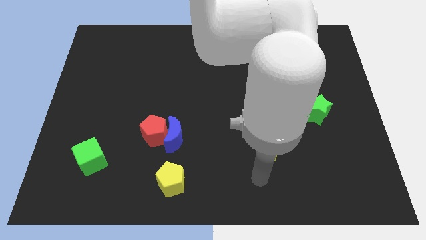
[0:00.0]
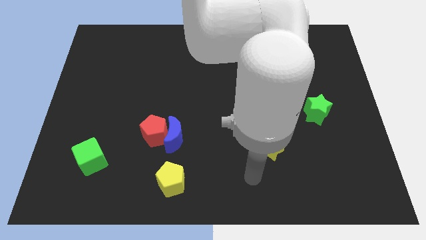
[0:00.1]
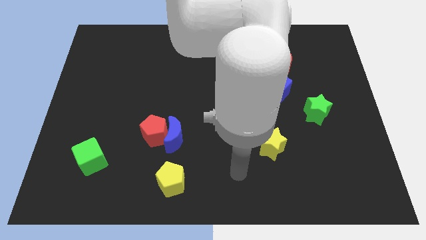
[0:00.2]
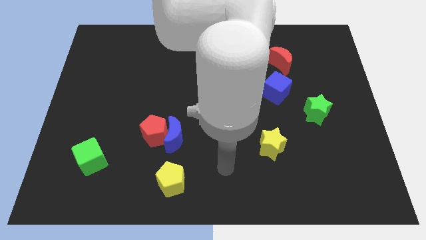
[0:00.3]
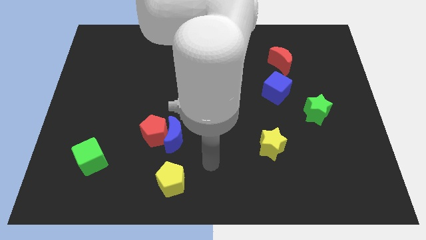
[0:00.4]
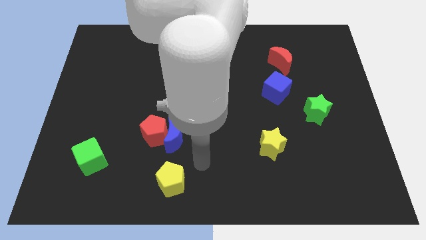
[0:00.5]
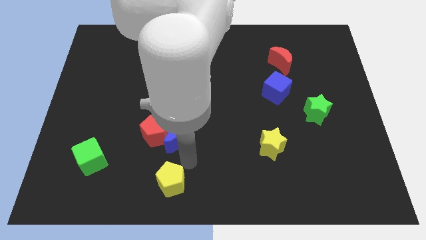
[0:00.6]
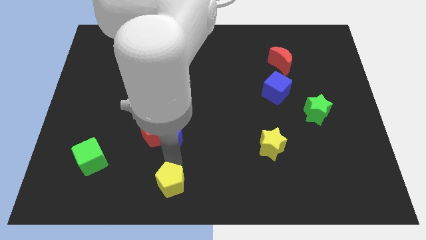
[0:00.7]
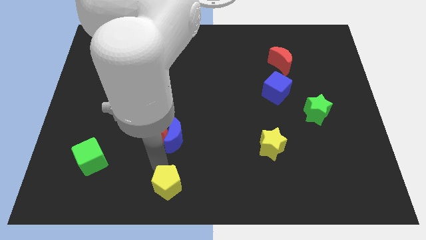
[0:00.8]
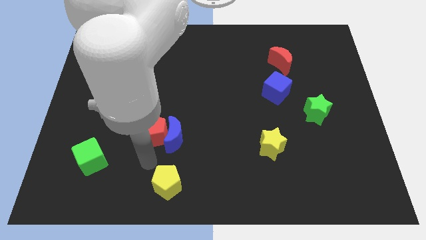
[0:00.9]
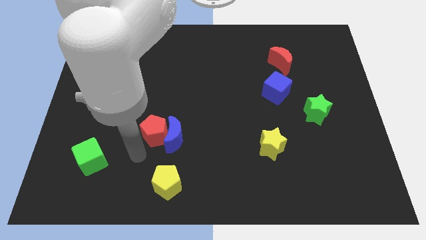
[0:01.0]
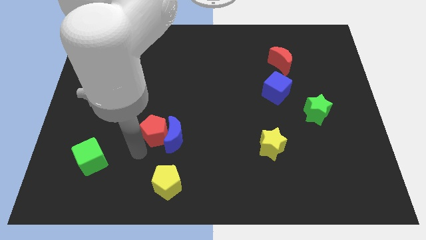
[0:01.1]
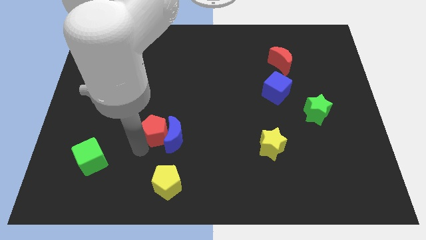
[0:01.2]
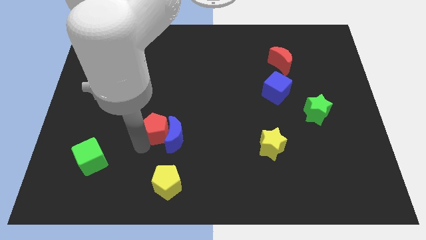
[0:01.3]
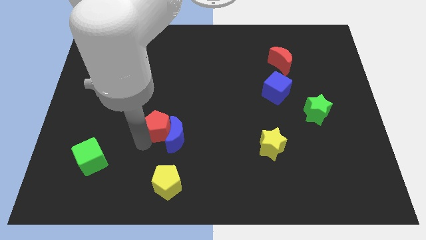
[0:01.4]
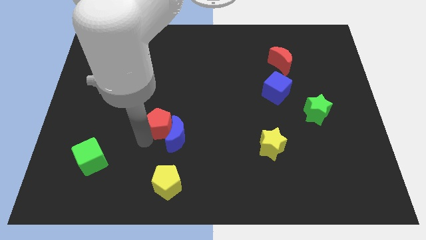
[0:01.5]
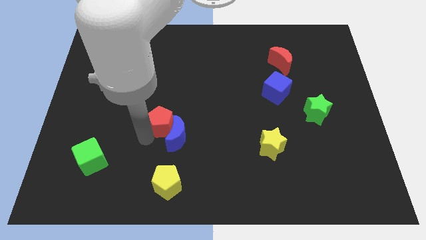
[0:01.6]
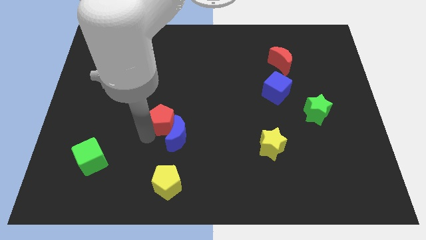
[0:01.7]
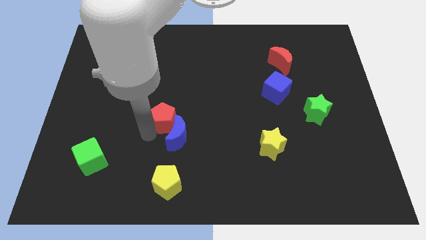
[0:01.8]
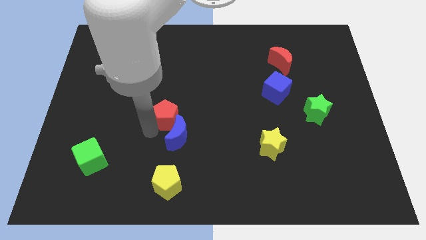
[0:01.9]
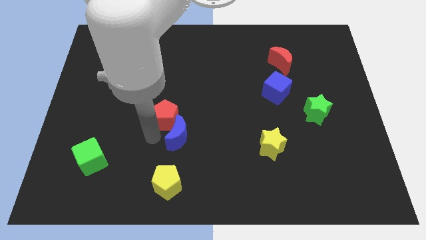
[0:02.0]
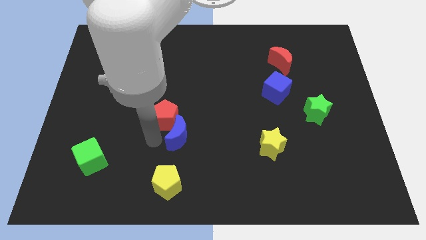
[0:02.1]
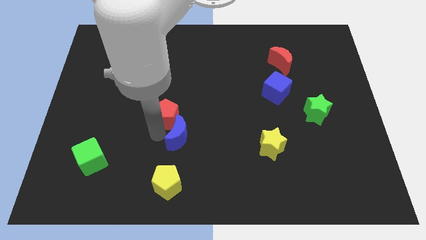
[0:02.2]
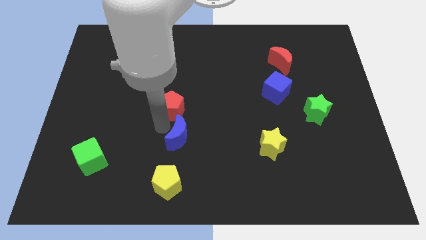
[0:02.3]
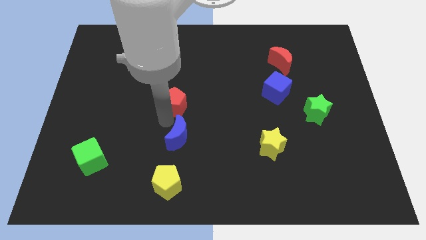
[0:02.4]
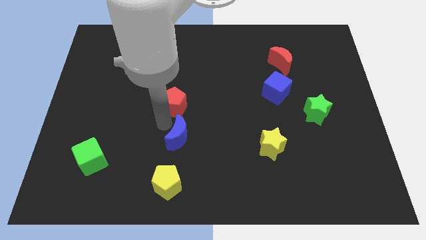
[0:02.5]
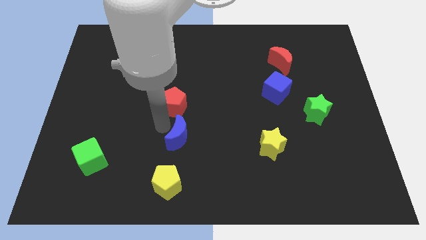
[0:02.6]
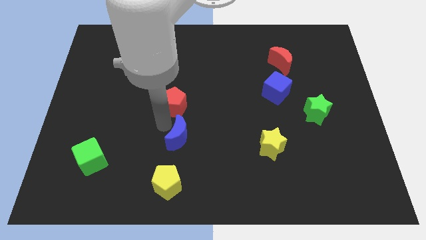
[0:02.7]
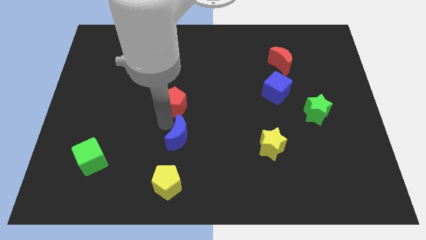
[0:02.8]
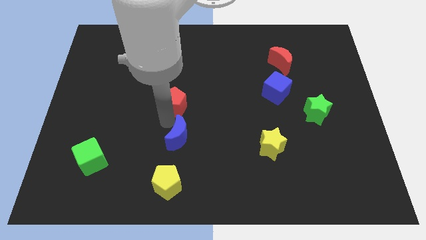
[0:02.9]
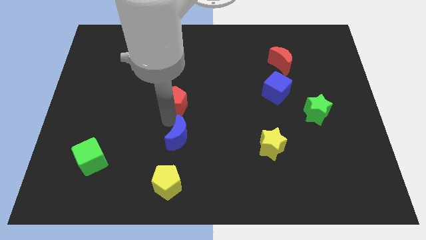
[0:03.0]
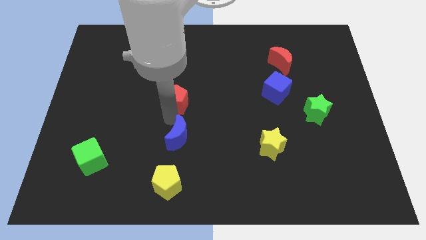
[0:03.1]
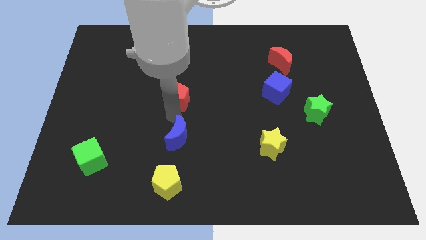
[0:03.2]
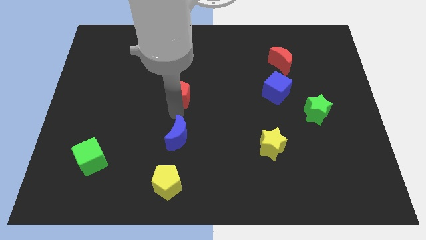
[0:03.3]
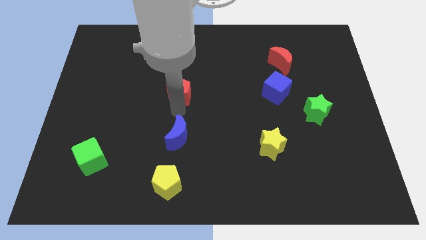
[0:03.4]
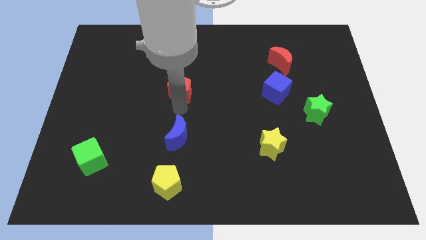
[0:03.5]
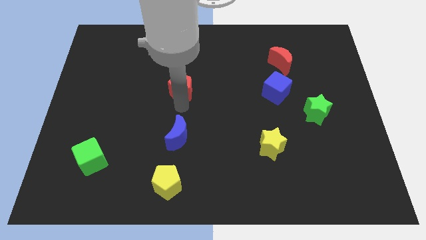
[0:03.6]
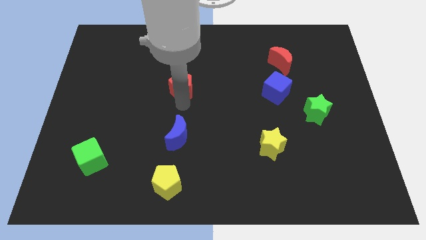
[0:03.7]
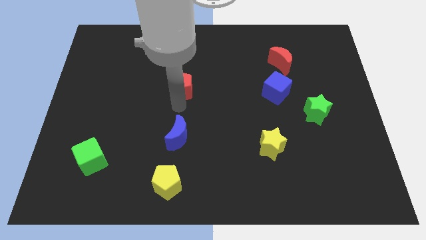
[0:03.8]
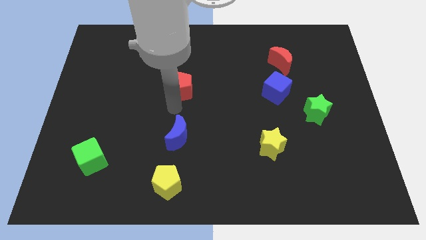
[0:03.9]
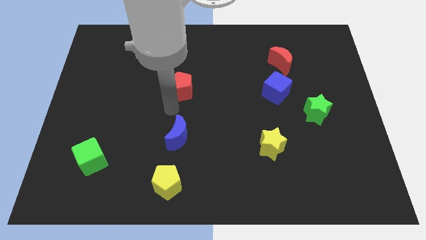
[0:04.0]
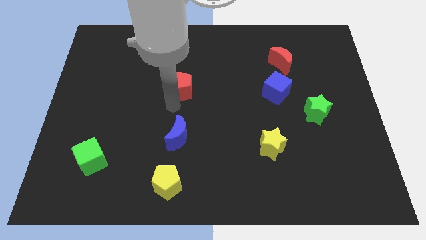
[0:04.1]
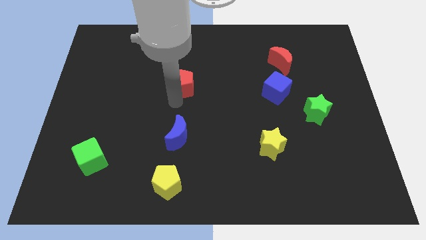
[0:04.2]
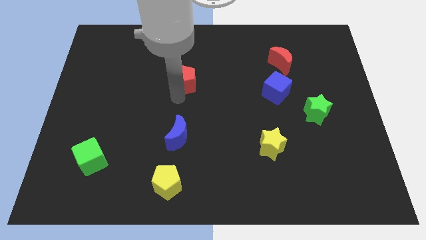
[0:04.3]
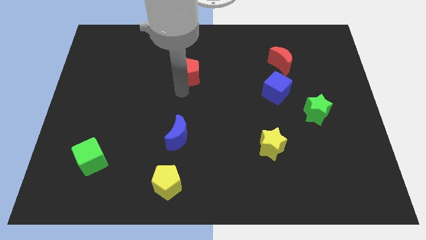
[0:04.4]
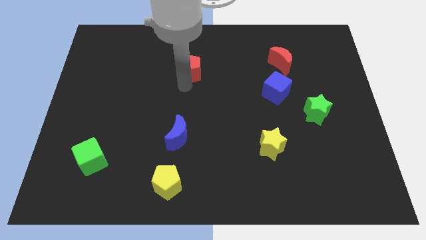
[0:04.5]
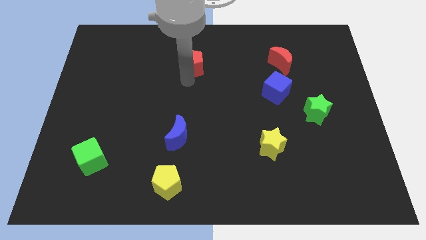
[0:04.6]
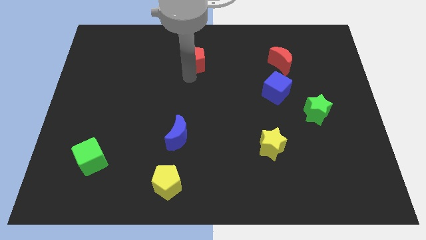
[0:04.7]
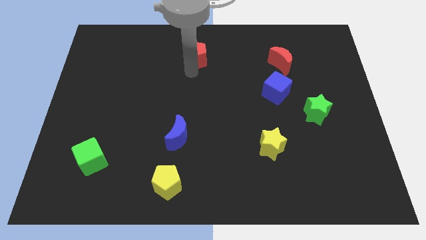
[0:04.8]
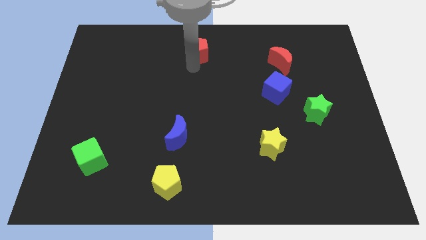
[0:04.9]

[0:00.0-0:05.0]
slide the red pentagon to the top side

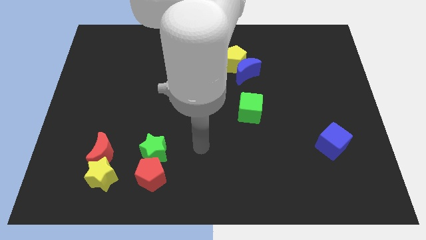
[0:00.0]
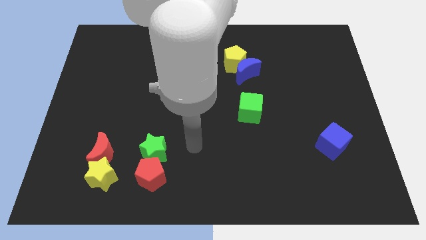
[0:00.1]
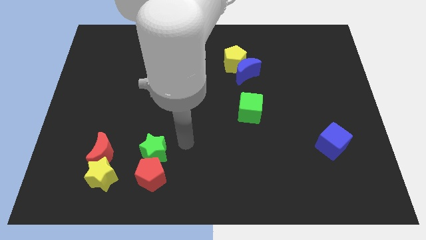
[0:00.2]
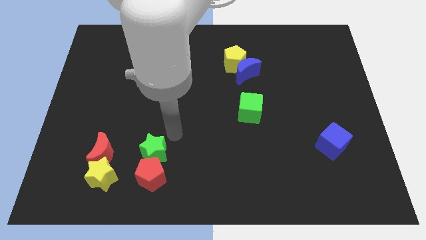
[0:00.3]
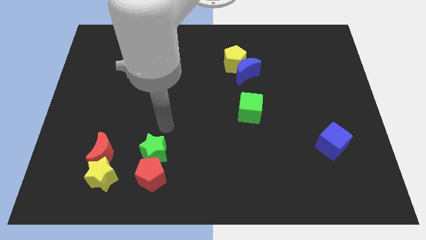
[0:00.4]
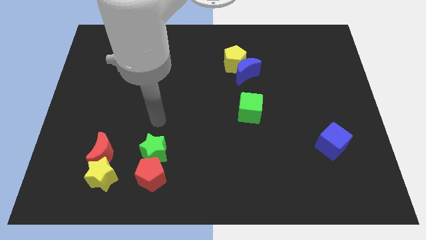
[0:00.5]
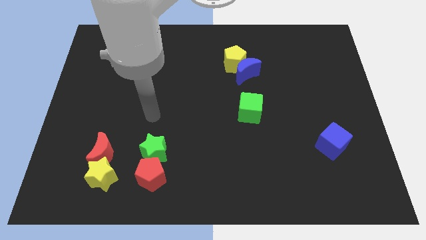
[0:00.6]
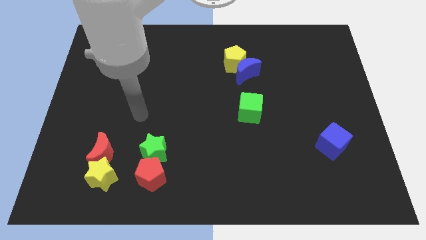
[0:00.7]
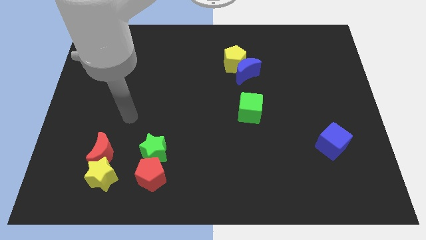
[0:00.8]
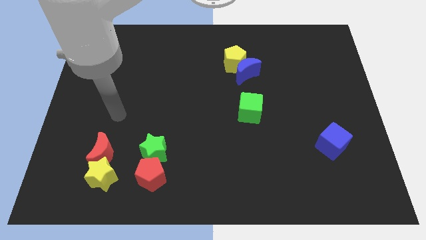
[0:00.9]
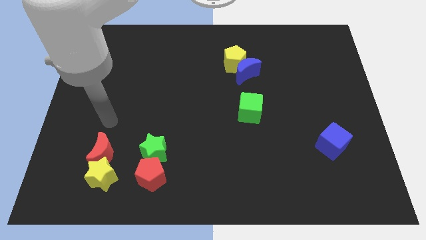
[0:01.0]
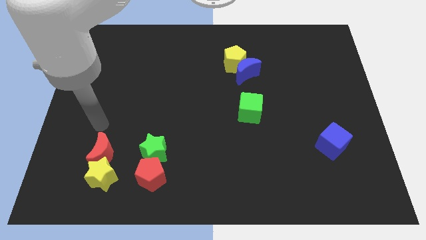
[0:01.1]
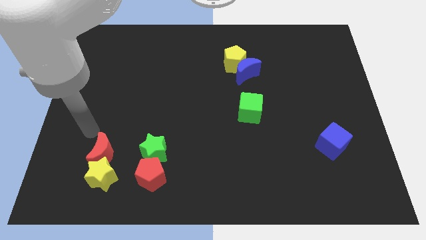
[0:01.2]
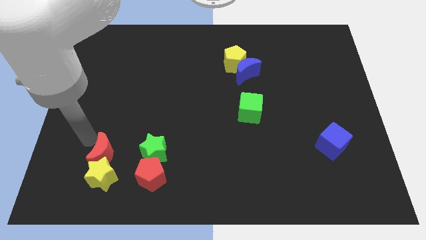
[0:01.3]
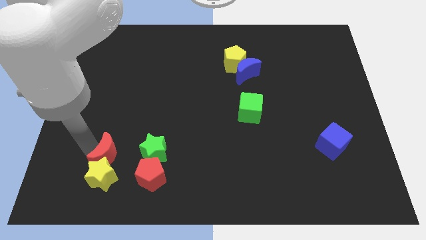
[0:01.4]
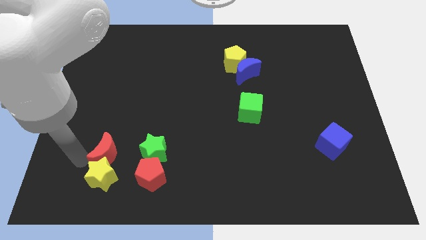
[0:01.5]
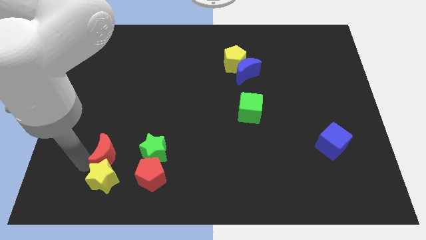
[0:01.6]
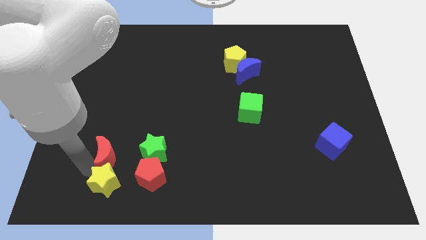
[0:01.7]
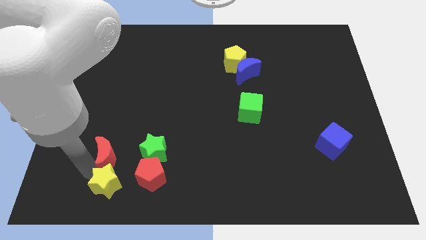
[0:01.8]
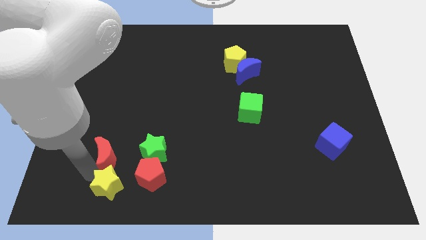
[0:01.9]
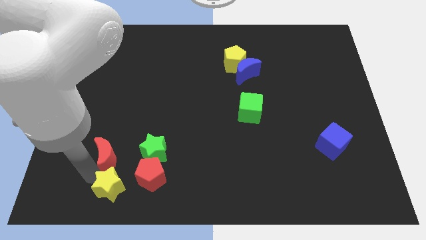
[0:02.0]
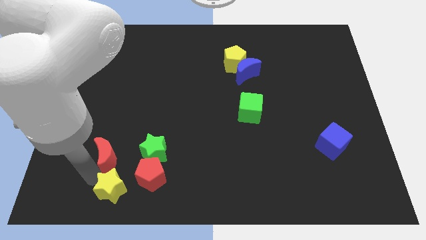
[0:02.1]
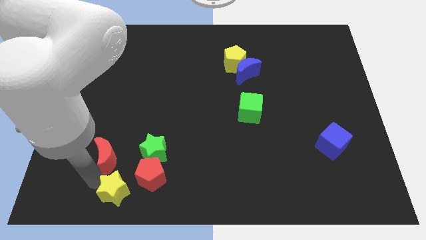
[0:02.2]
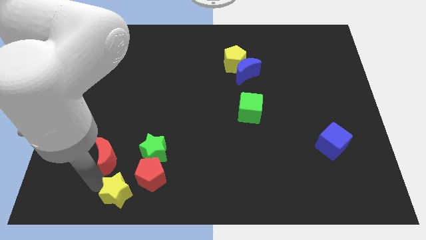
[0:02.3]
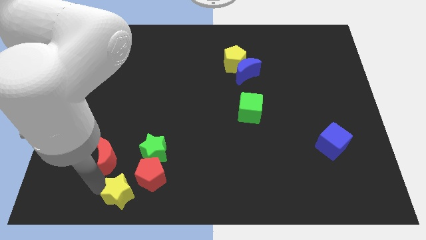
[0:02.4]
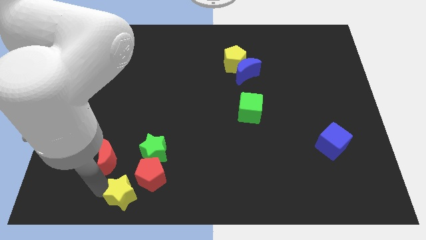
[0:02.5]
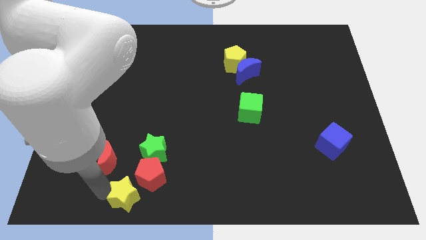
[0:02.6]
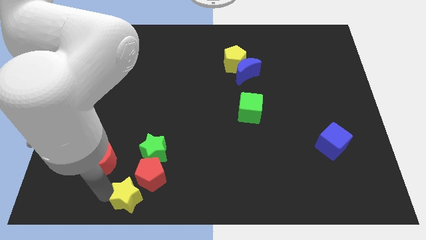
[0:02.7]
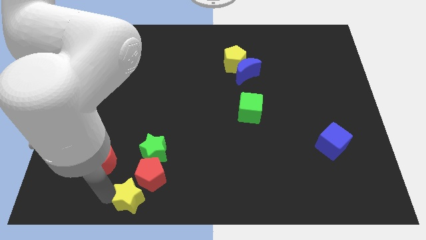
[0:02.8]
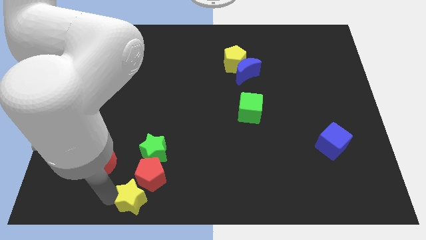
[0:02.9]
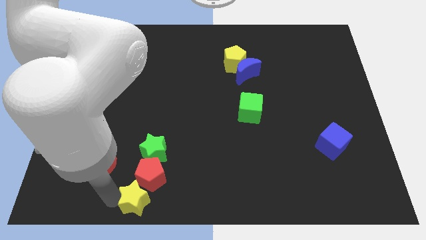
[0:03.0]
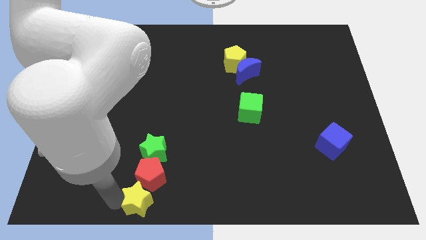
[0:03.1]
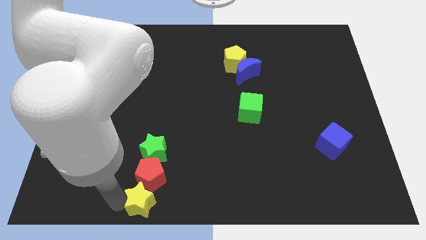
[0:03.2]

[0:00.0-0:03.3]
push the yellow star to the bottom
